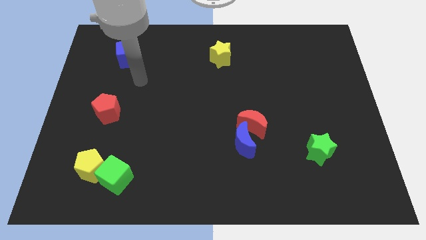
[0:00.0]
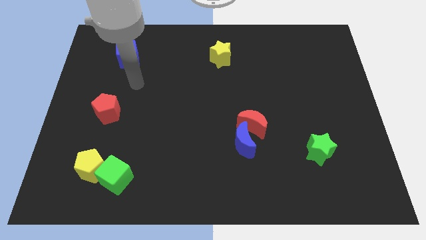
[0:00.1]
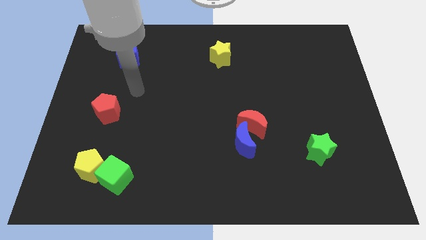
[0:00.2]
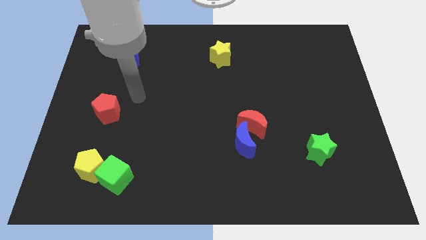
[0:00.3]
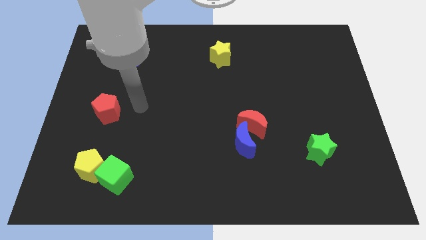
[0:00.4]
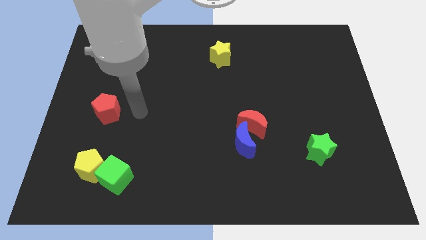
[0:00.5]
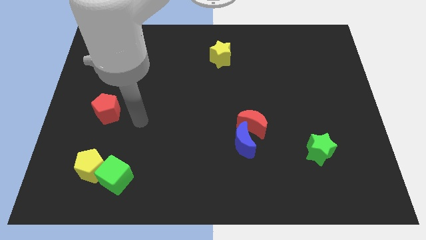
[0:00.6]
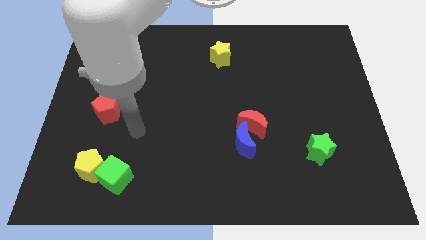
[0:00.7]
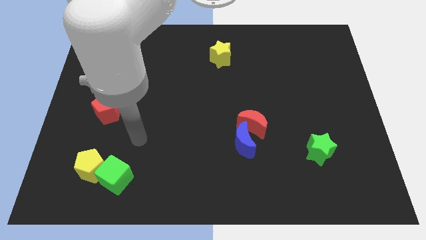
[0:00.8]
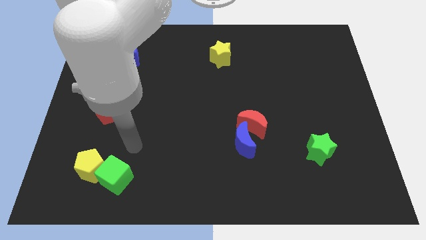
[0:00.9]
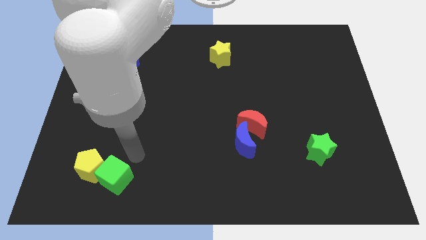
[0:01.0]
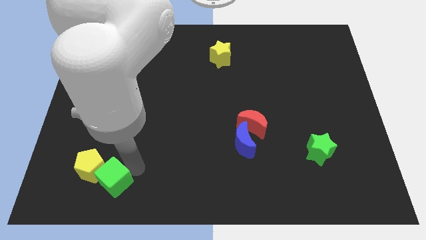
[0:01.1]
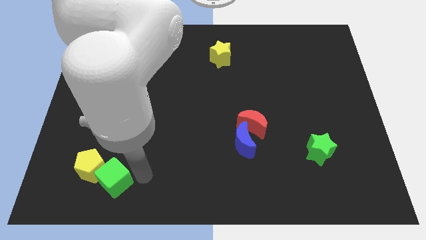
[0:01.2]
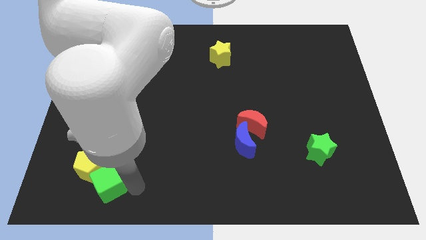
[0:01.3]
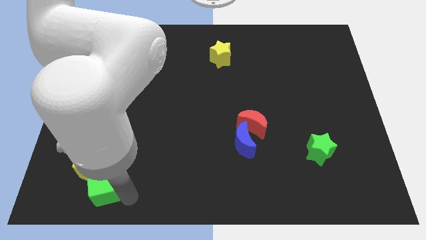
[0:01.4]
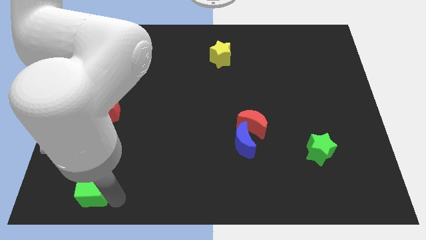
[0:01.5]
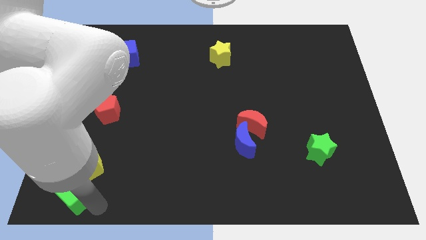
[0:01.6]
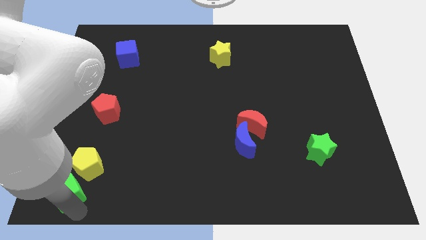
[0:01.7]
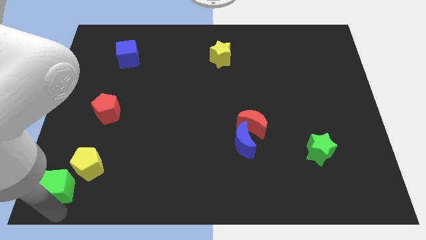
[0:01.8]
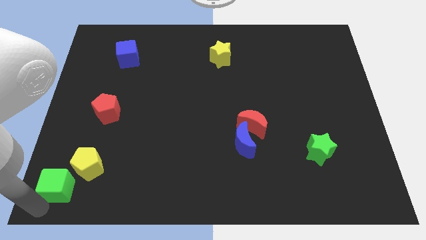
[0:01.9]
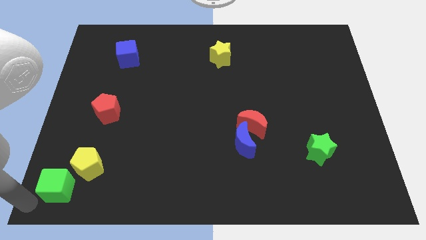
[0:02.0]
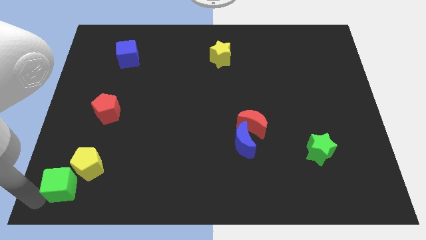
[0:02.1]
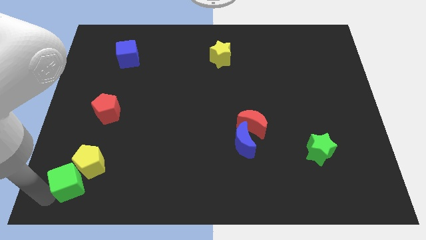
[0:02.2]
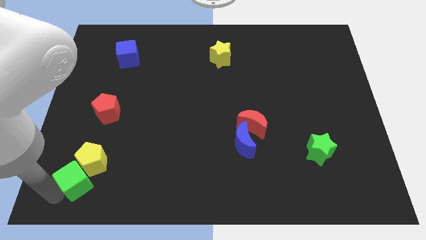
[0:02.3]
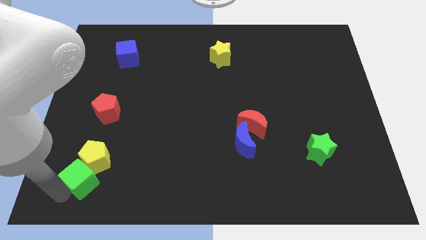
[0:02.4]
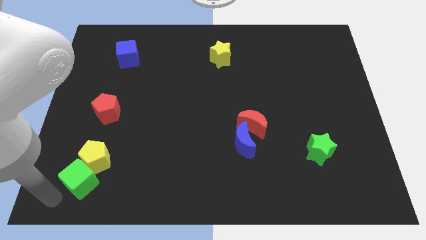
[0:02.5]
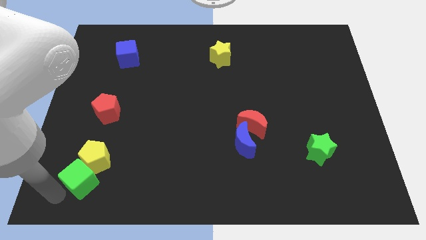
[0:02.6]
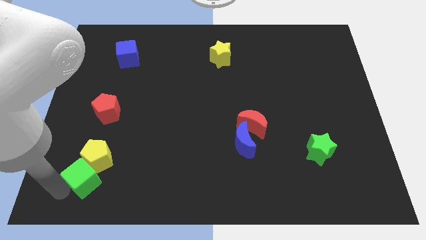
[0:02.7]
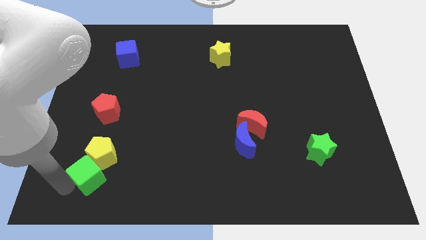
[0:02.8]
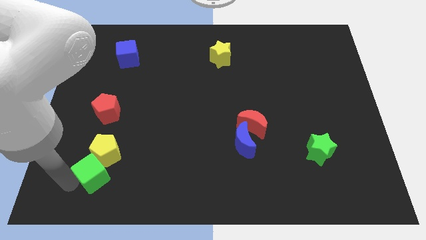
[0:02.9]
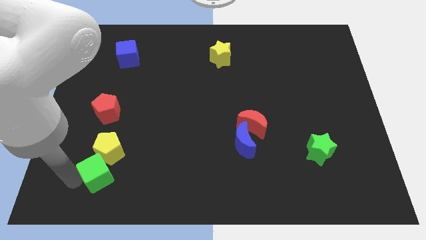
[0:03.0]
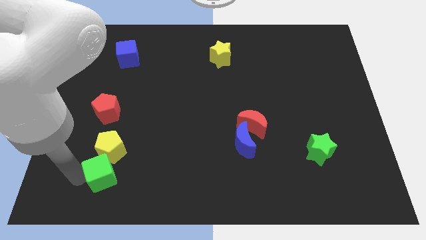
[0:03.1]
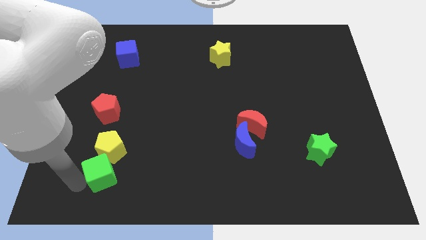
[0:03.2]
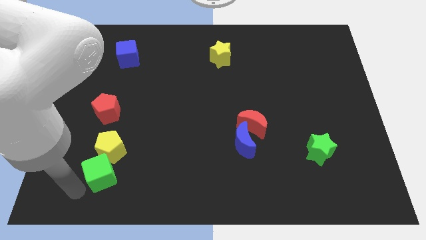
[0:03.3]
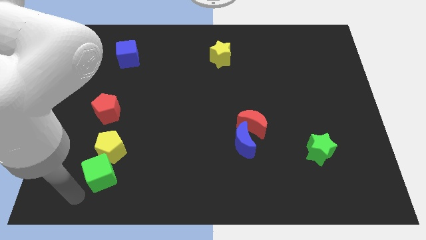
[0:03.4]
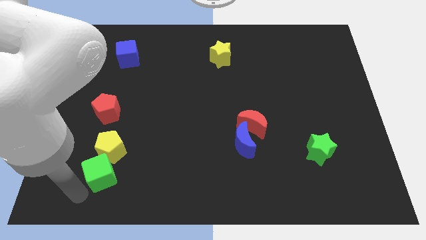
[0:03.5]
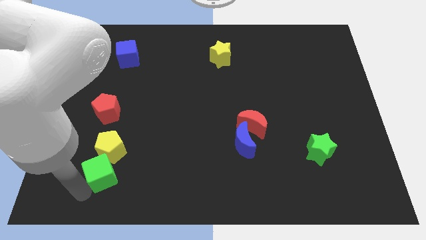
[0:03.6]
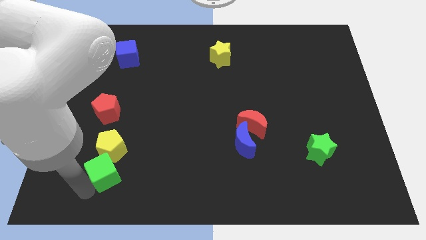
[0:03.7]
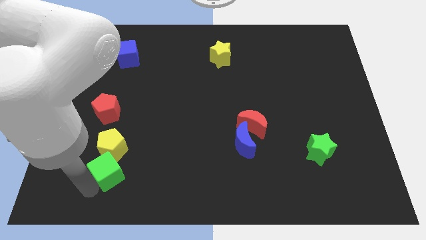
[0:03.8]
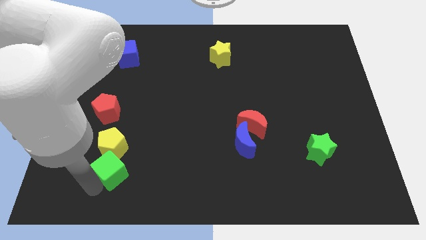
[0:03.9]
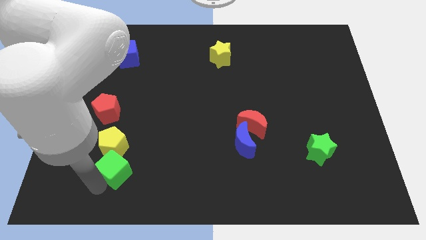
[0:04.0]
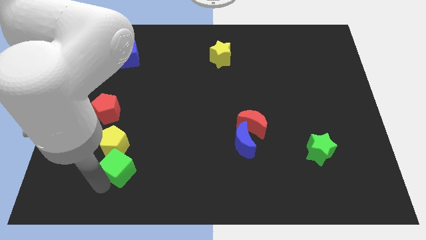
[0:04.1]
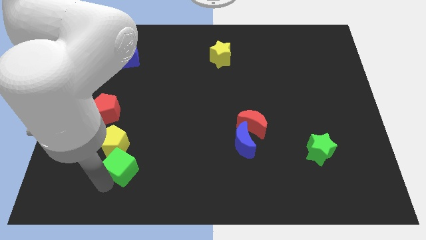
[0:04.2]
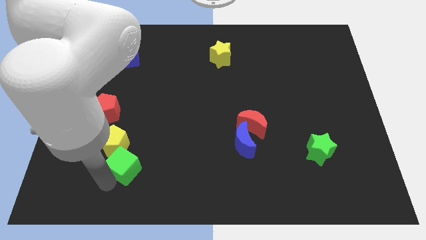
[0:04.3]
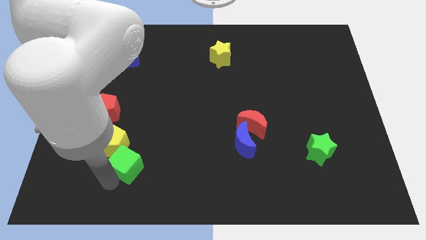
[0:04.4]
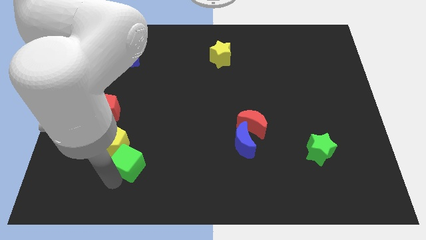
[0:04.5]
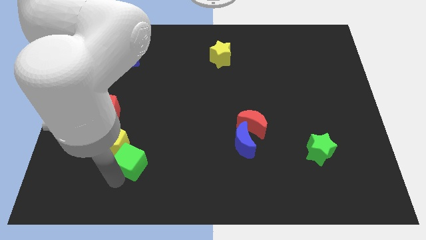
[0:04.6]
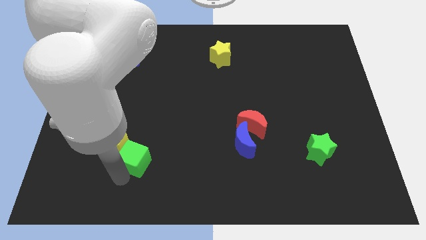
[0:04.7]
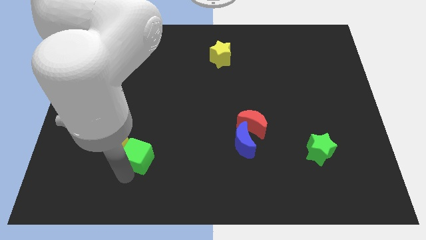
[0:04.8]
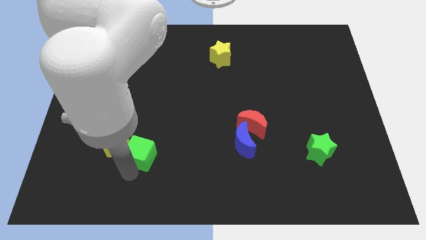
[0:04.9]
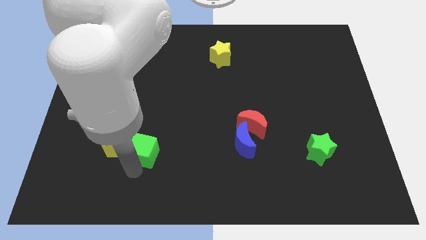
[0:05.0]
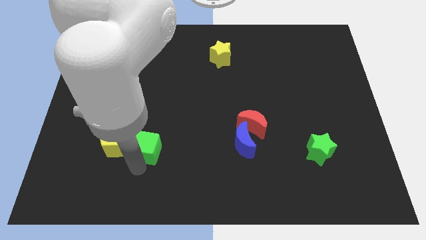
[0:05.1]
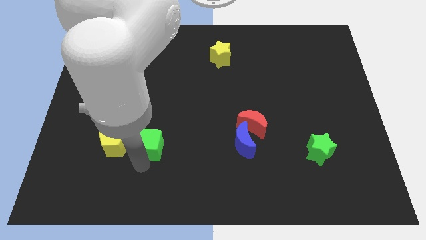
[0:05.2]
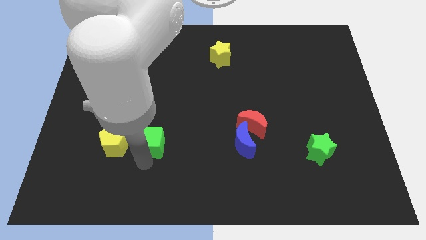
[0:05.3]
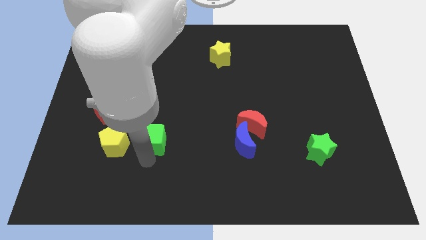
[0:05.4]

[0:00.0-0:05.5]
slightly push the green cube upwards

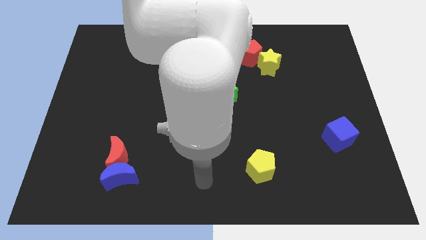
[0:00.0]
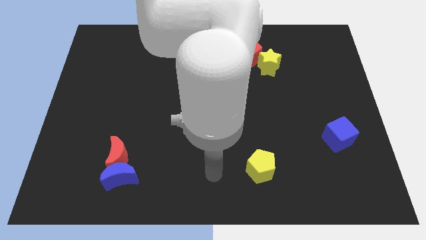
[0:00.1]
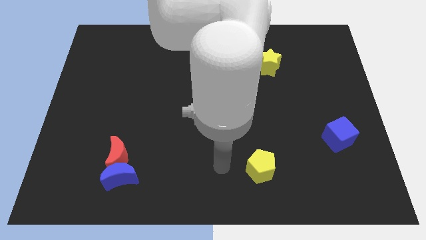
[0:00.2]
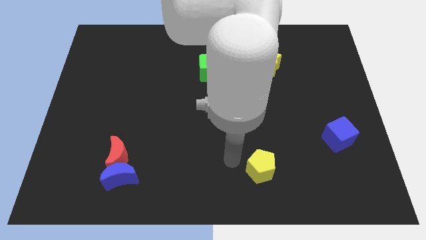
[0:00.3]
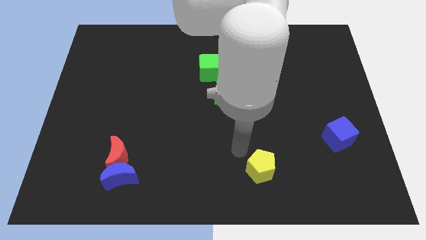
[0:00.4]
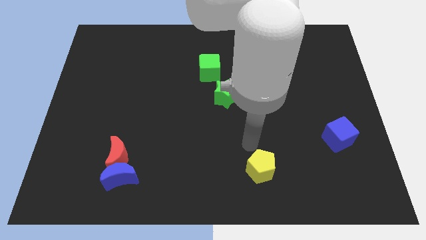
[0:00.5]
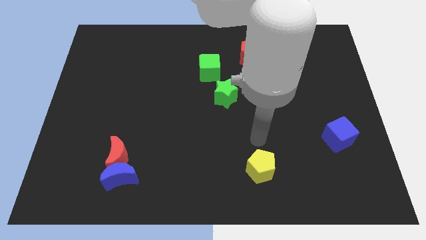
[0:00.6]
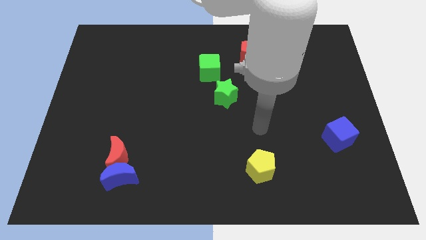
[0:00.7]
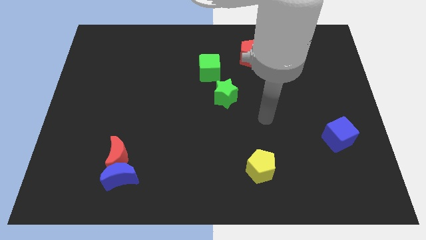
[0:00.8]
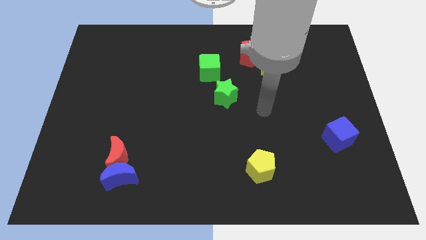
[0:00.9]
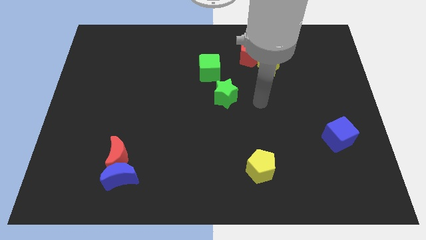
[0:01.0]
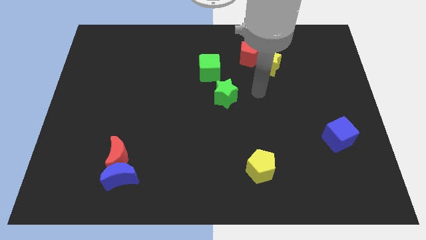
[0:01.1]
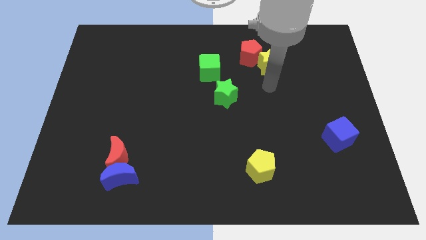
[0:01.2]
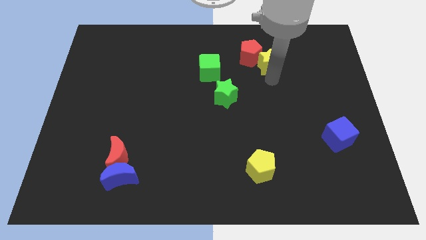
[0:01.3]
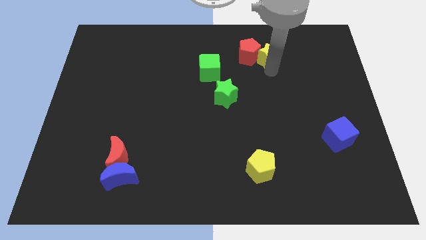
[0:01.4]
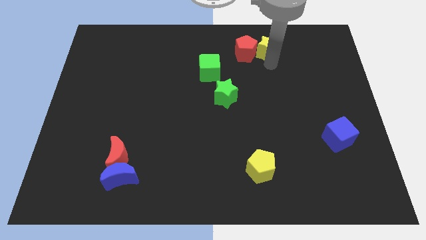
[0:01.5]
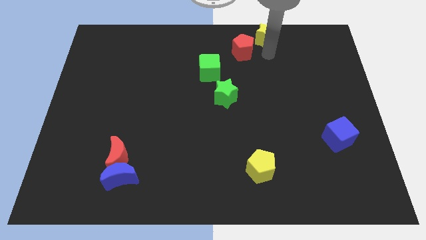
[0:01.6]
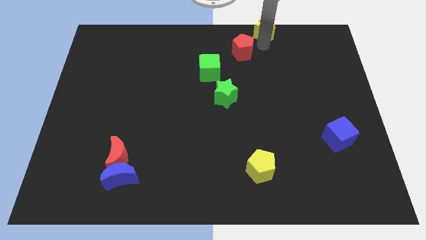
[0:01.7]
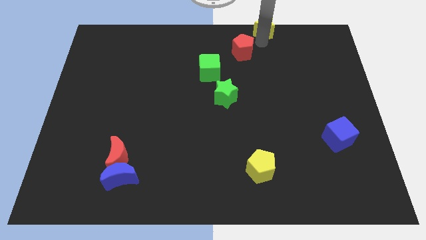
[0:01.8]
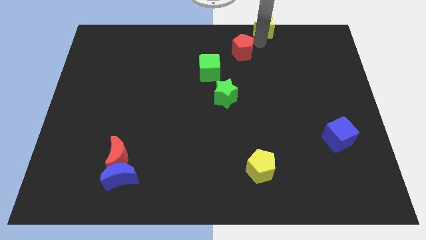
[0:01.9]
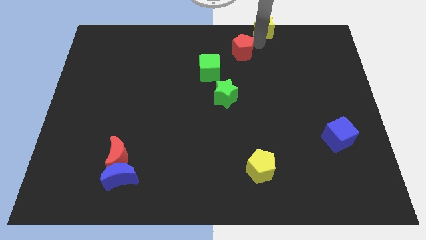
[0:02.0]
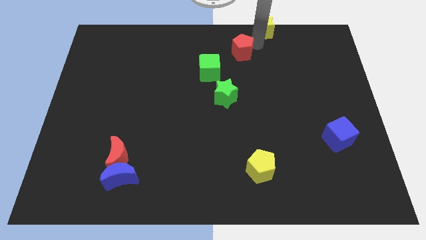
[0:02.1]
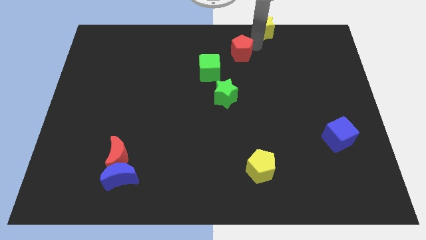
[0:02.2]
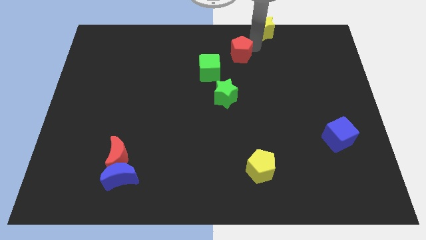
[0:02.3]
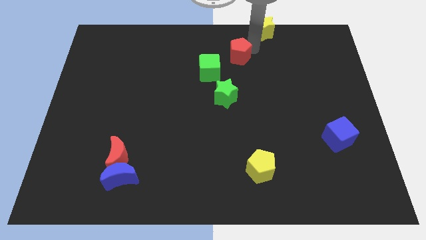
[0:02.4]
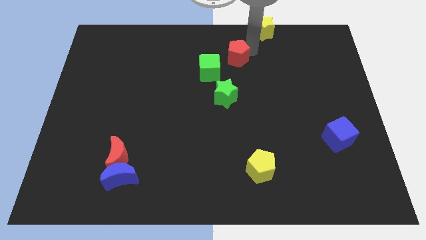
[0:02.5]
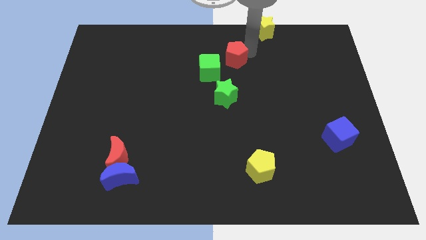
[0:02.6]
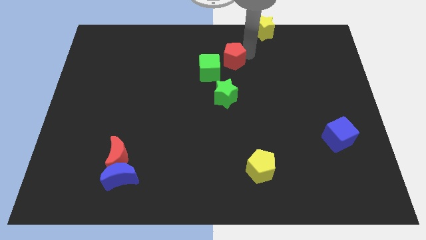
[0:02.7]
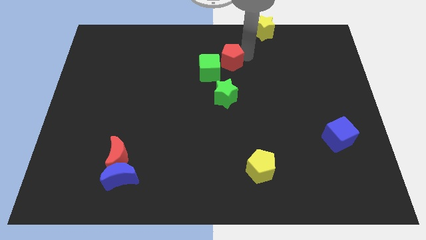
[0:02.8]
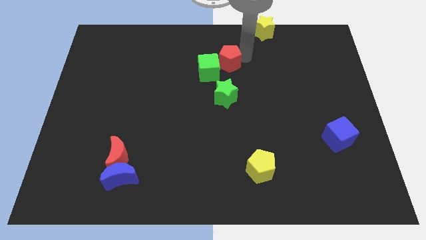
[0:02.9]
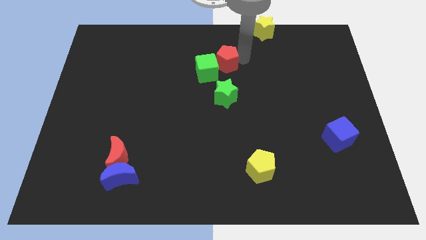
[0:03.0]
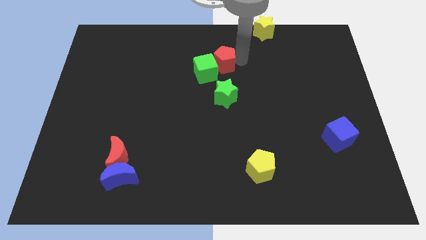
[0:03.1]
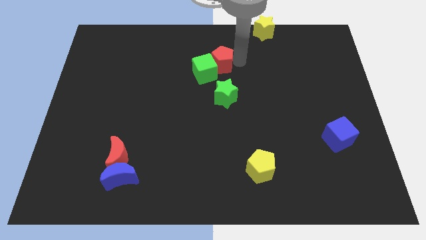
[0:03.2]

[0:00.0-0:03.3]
slide the red pentagon left a little bit
